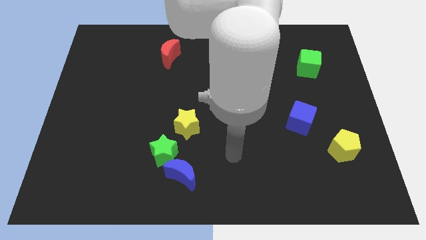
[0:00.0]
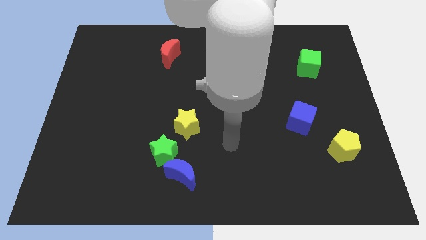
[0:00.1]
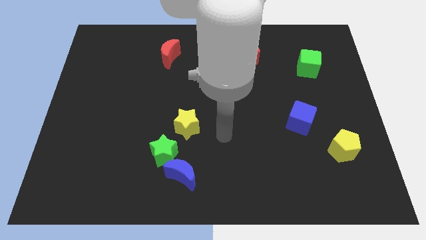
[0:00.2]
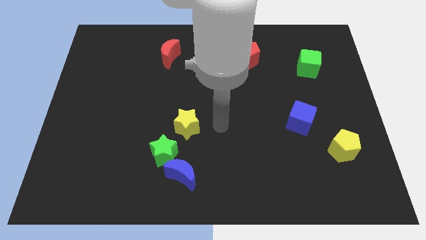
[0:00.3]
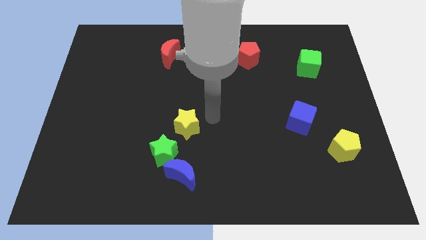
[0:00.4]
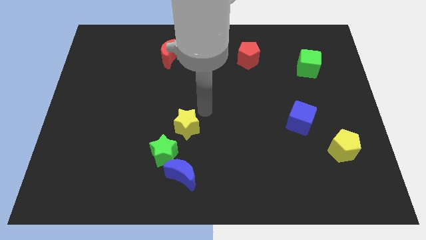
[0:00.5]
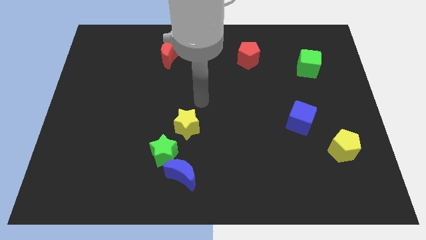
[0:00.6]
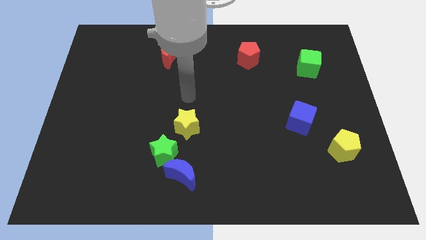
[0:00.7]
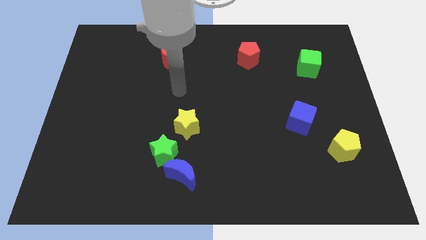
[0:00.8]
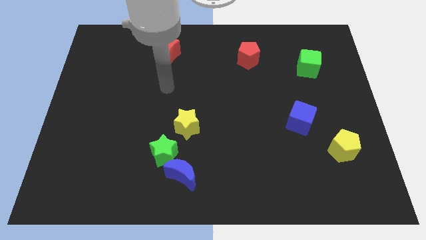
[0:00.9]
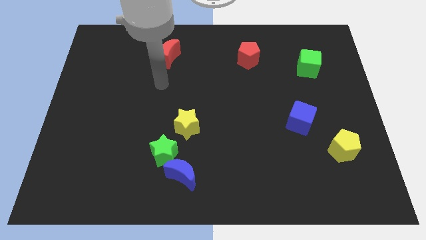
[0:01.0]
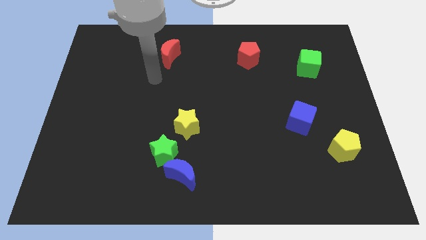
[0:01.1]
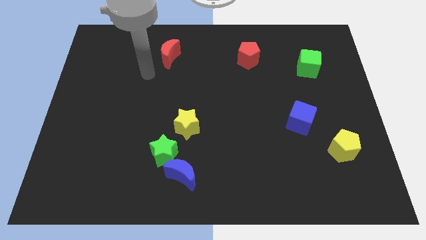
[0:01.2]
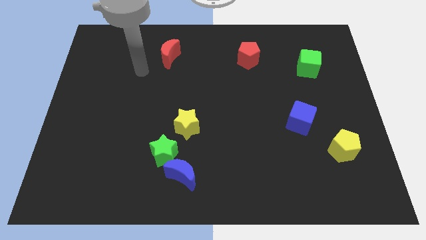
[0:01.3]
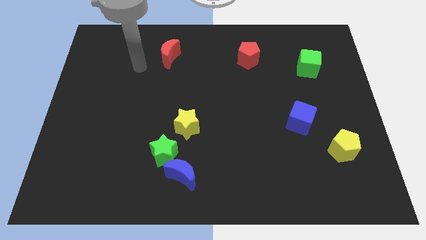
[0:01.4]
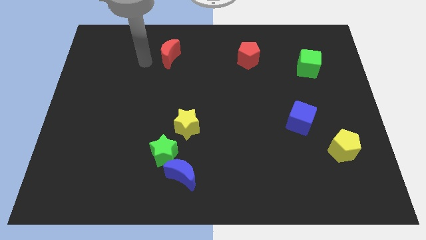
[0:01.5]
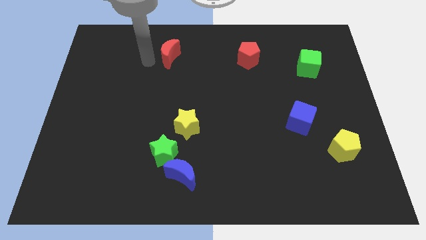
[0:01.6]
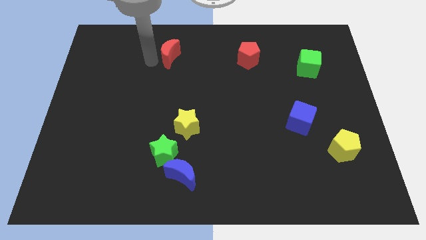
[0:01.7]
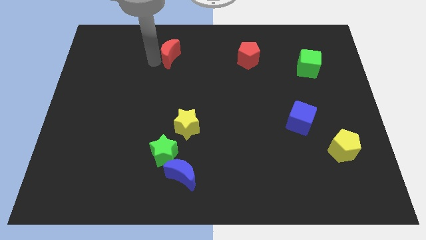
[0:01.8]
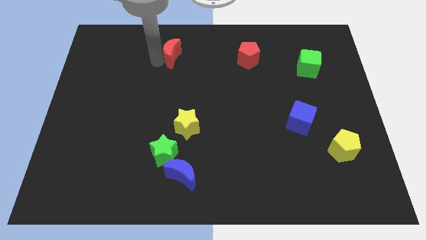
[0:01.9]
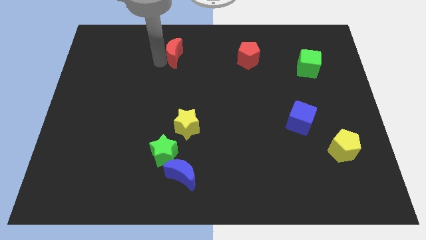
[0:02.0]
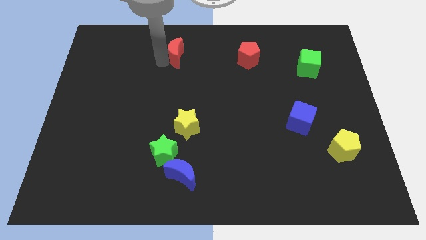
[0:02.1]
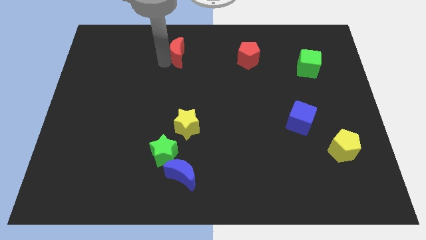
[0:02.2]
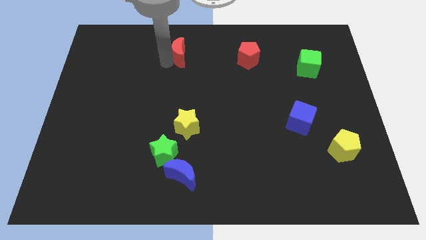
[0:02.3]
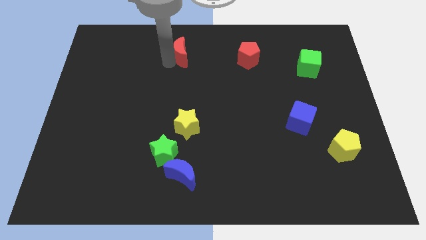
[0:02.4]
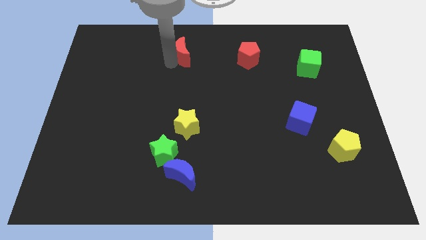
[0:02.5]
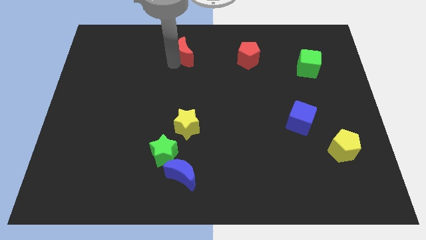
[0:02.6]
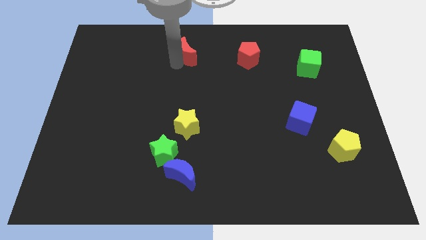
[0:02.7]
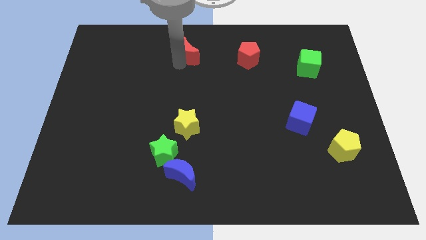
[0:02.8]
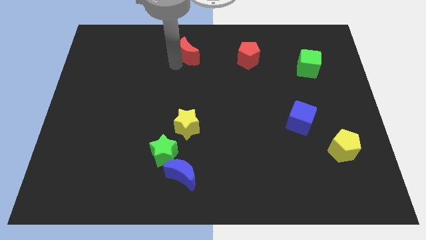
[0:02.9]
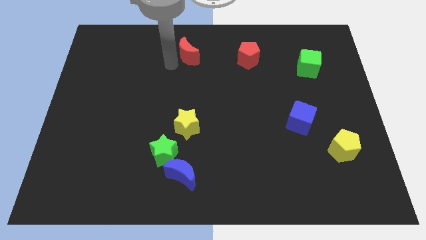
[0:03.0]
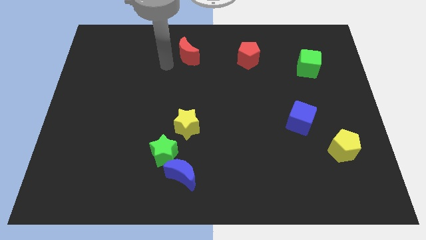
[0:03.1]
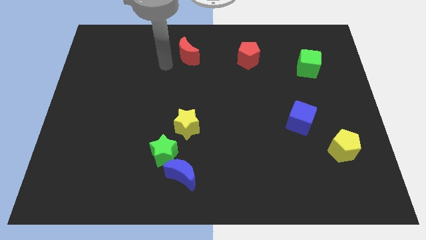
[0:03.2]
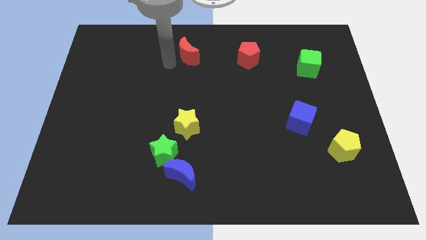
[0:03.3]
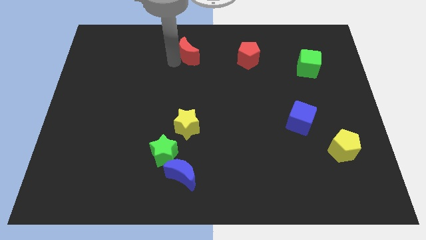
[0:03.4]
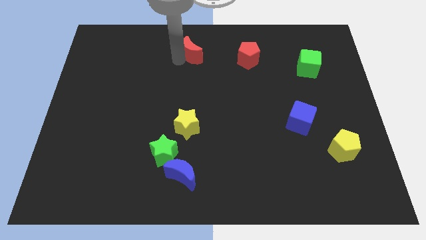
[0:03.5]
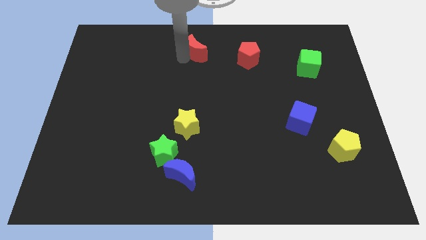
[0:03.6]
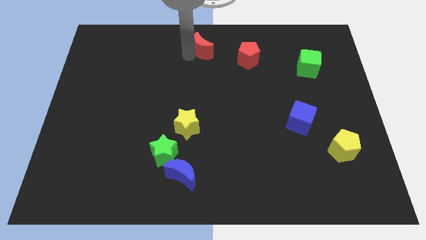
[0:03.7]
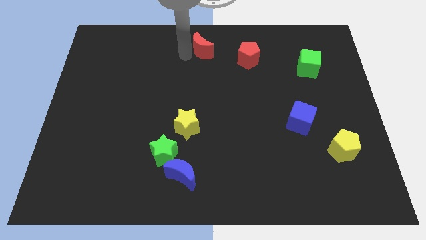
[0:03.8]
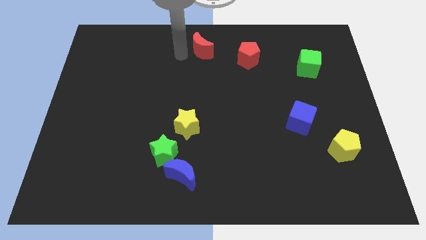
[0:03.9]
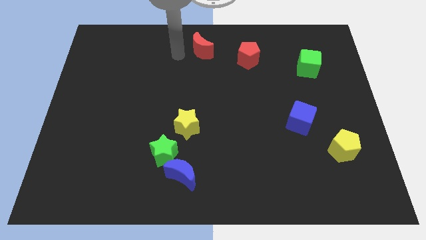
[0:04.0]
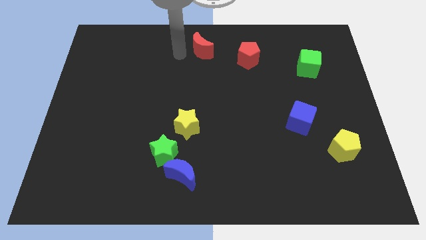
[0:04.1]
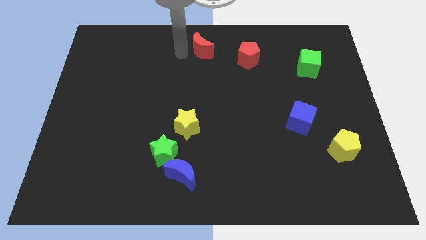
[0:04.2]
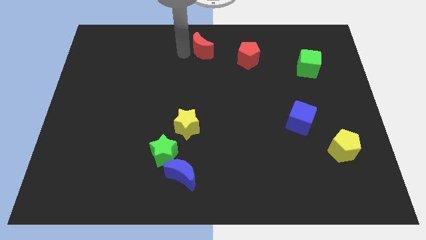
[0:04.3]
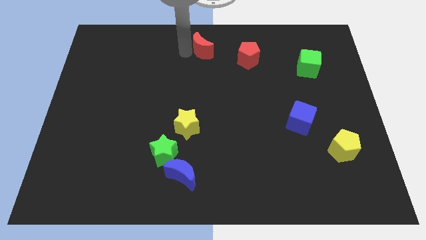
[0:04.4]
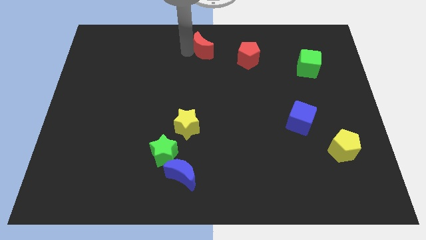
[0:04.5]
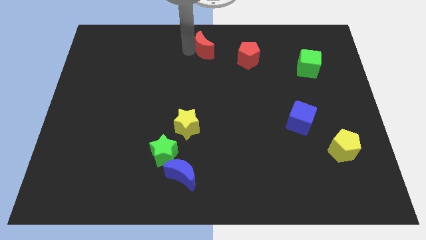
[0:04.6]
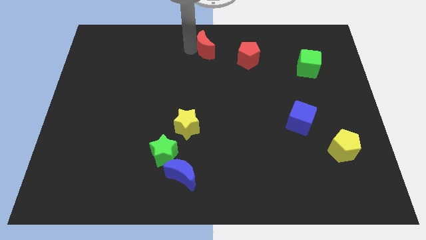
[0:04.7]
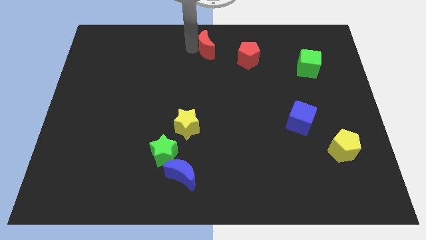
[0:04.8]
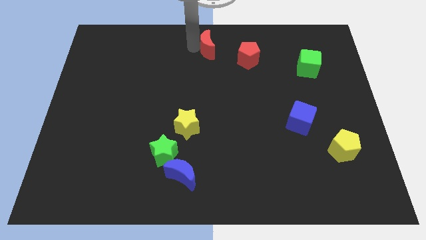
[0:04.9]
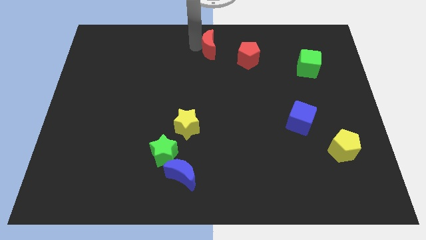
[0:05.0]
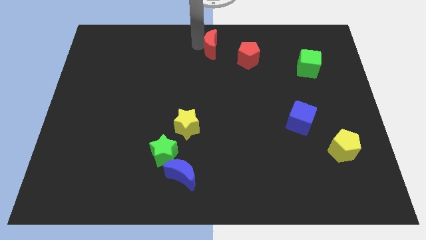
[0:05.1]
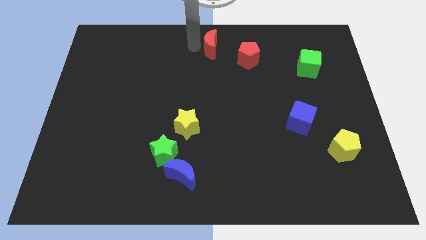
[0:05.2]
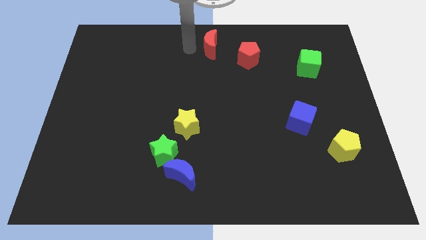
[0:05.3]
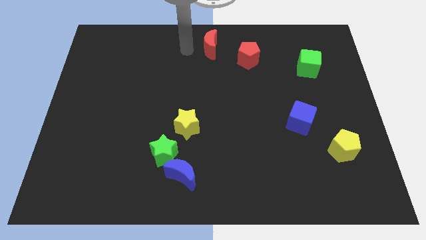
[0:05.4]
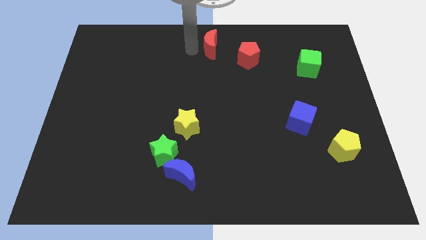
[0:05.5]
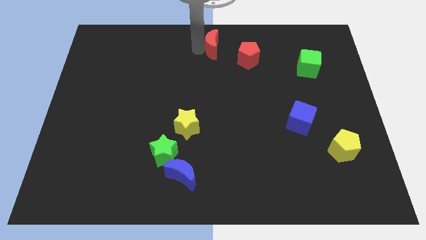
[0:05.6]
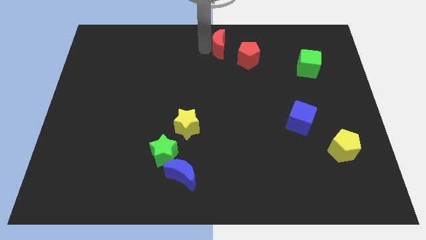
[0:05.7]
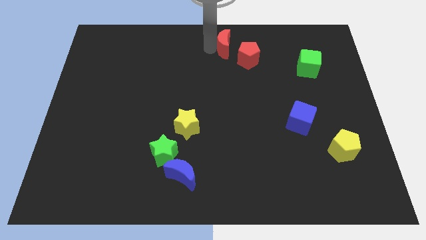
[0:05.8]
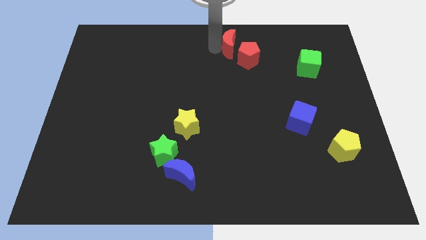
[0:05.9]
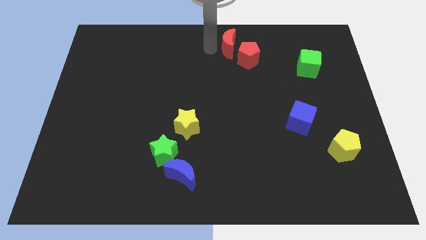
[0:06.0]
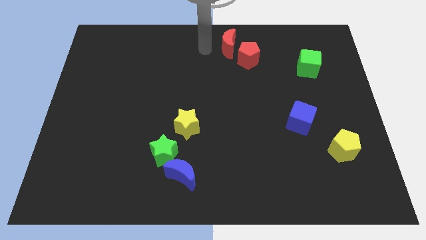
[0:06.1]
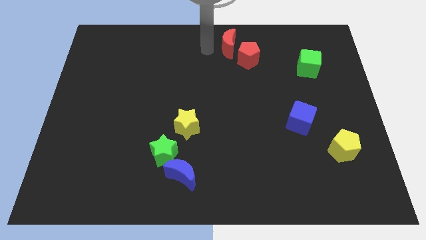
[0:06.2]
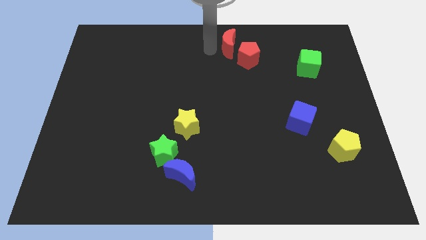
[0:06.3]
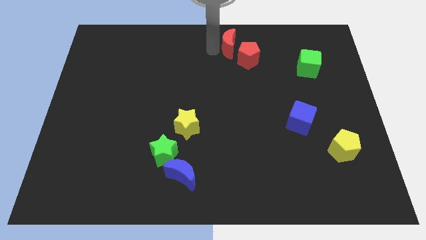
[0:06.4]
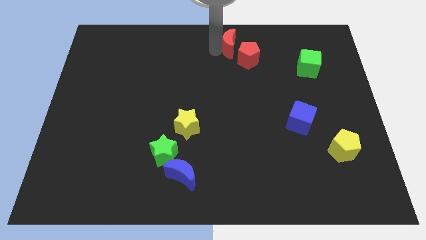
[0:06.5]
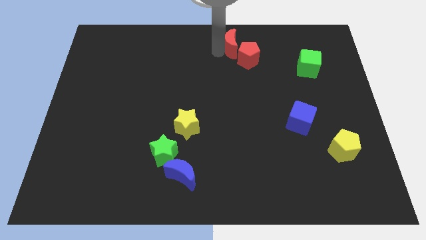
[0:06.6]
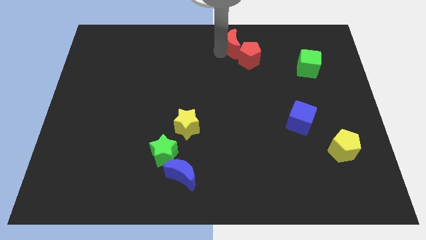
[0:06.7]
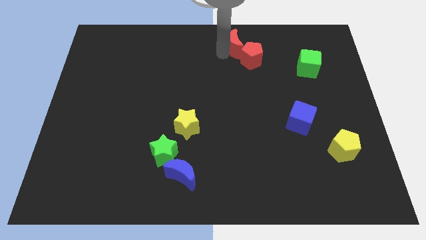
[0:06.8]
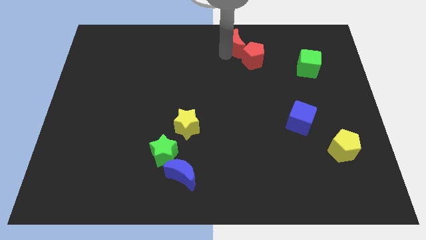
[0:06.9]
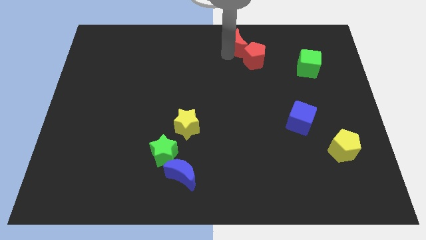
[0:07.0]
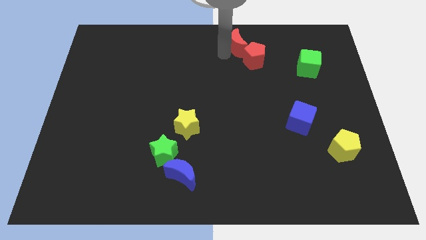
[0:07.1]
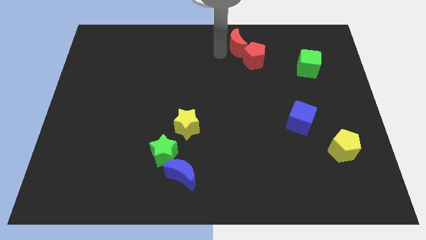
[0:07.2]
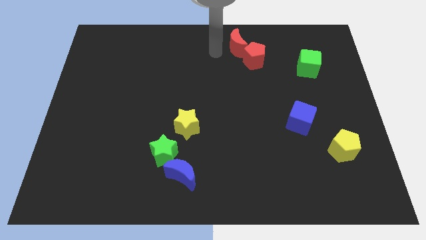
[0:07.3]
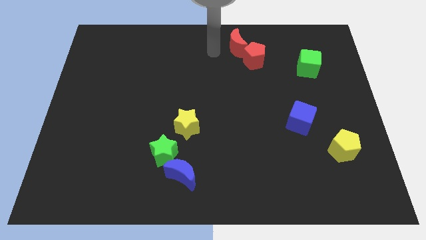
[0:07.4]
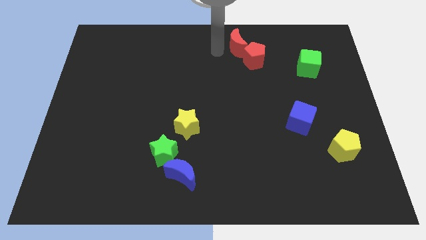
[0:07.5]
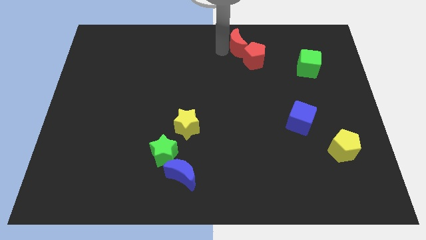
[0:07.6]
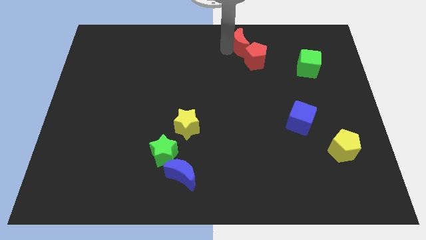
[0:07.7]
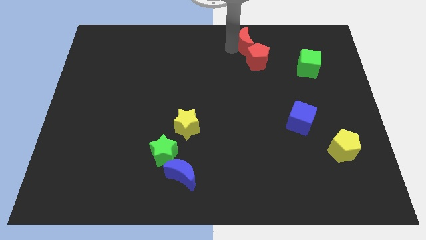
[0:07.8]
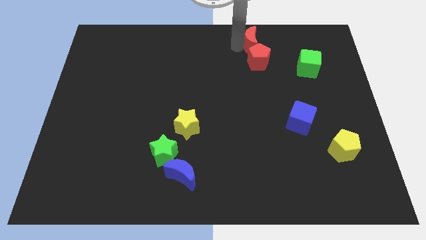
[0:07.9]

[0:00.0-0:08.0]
move the red moon right
